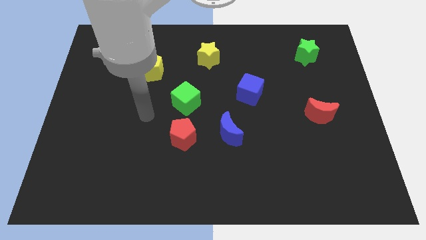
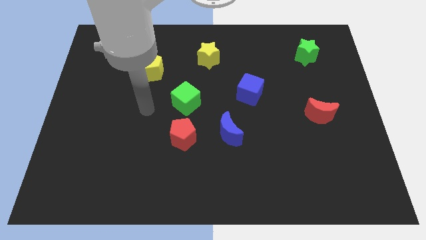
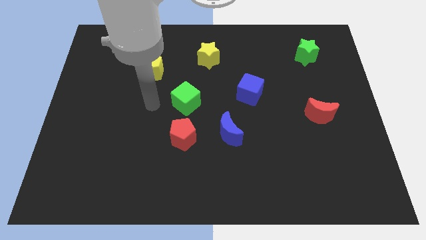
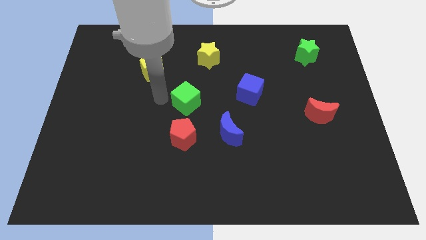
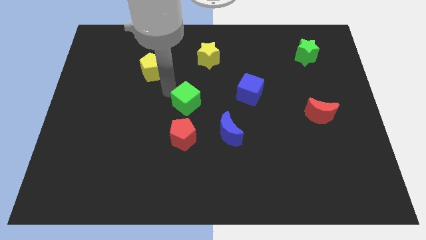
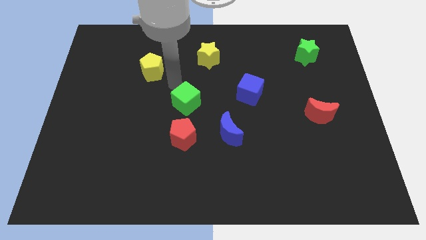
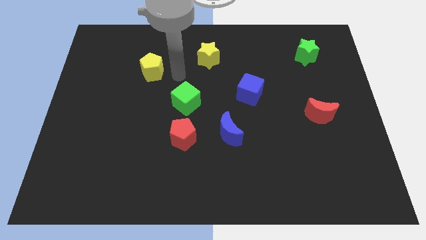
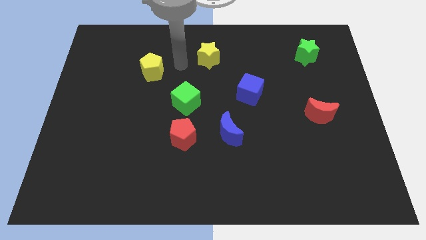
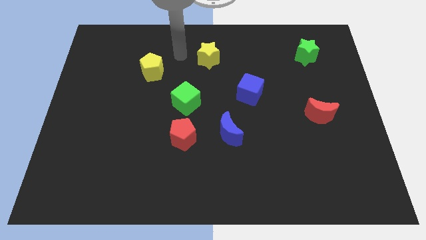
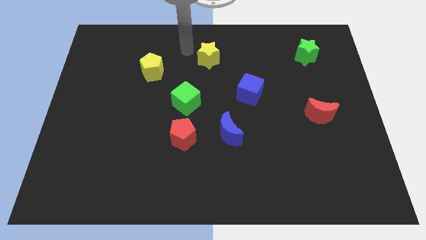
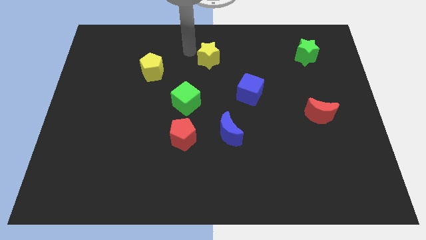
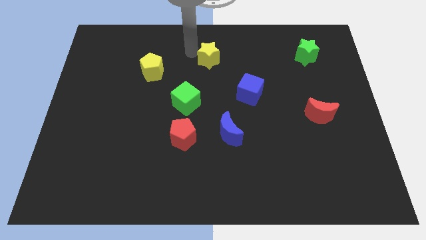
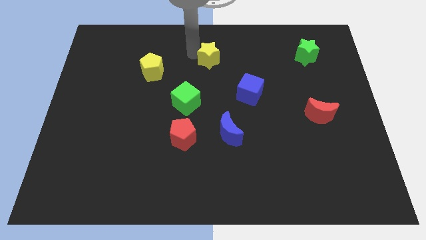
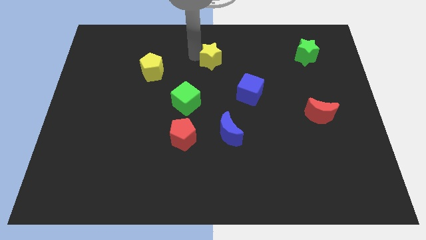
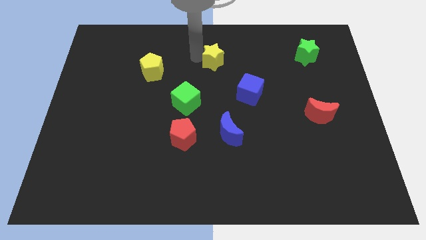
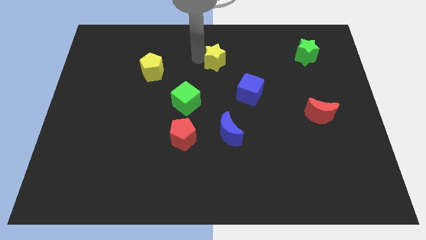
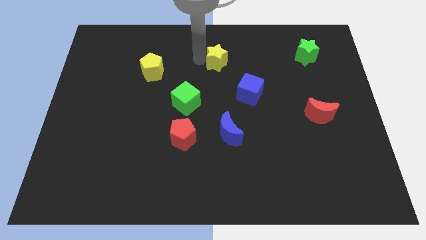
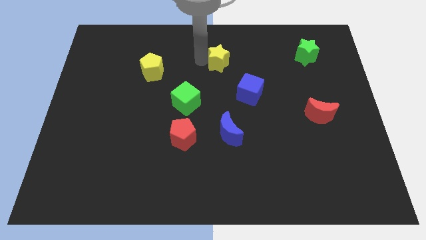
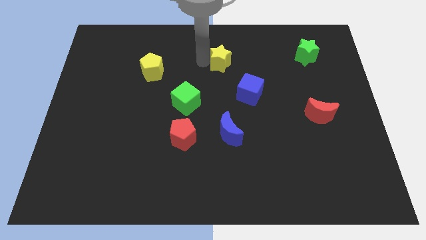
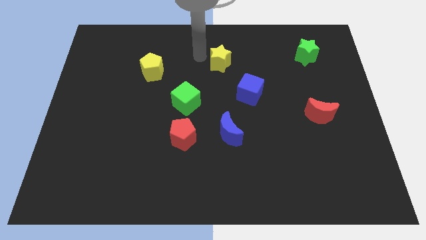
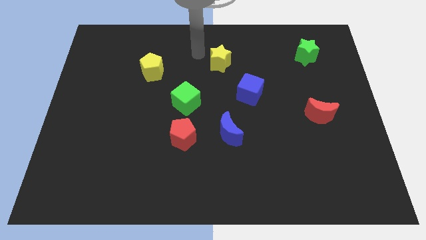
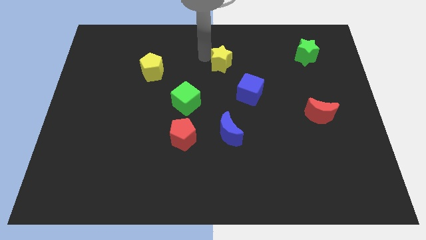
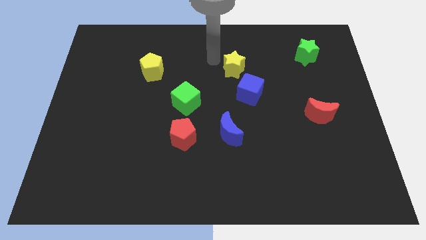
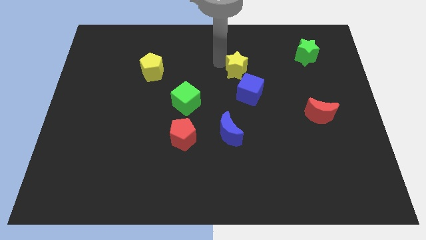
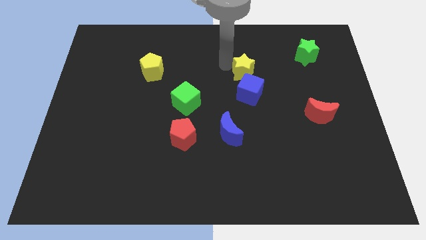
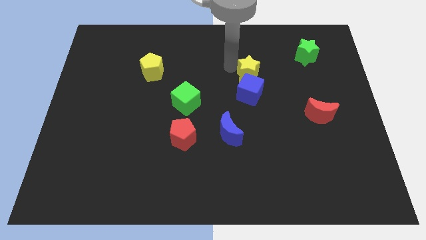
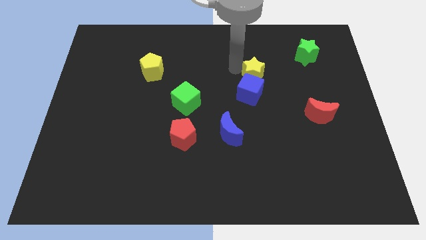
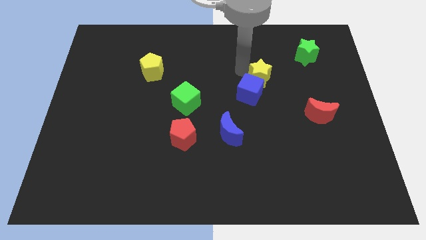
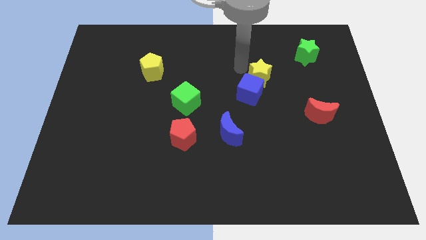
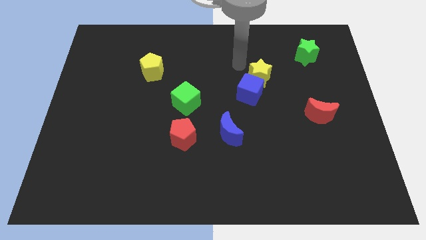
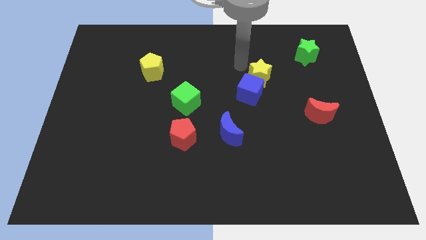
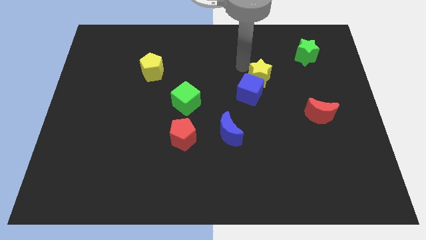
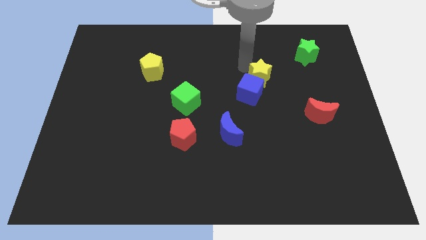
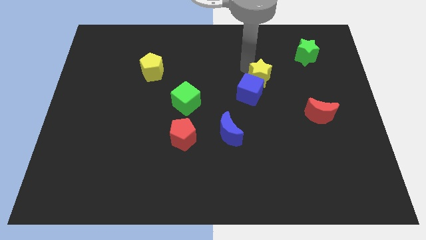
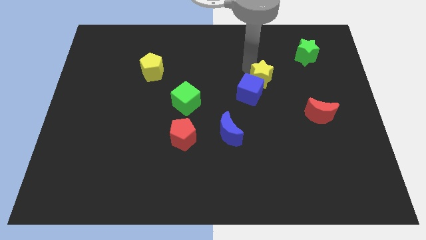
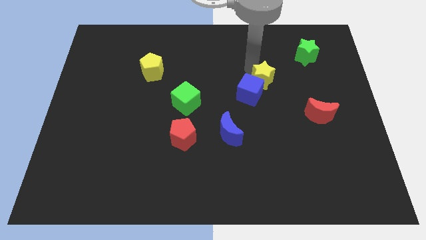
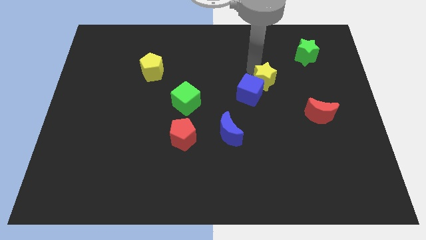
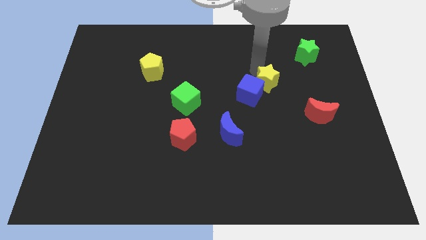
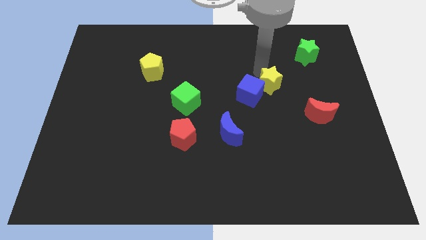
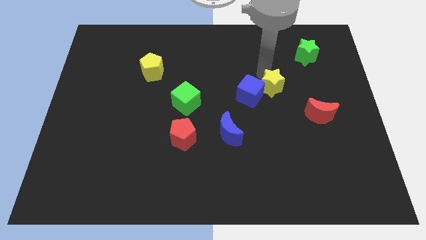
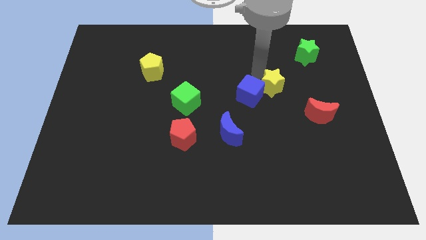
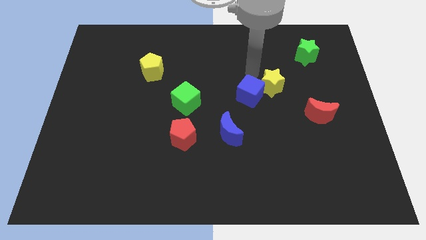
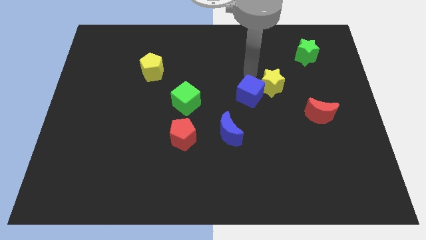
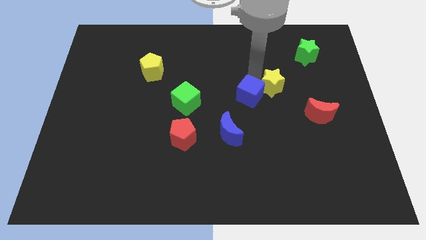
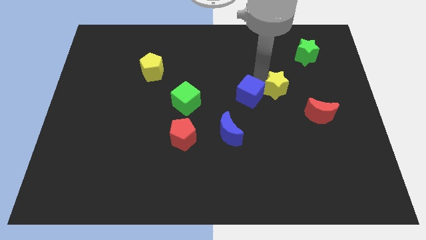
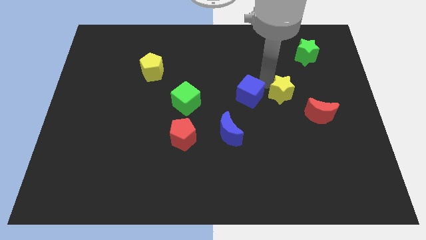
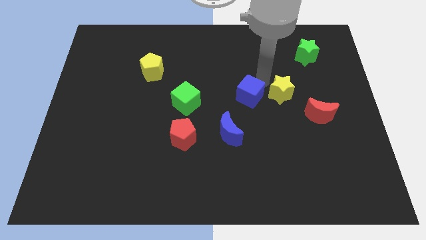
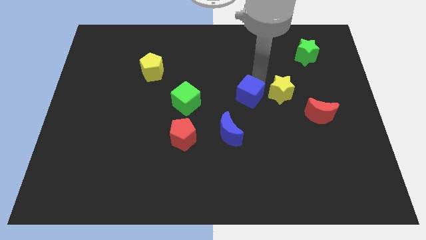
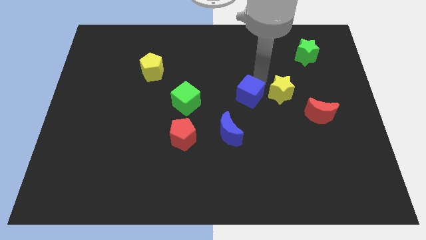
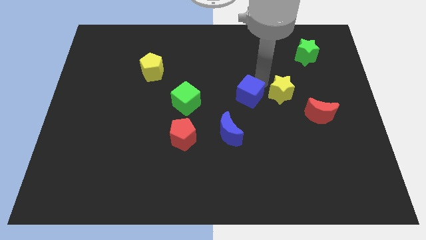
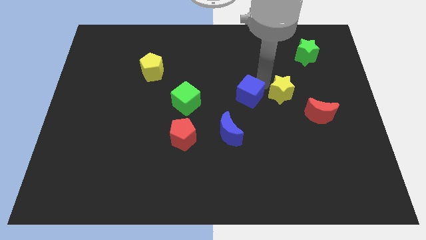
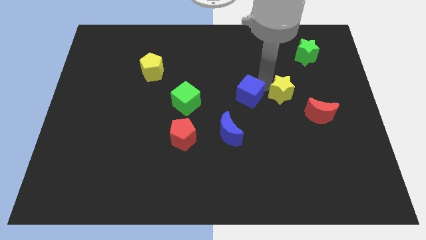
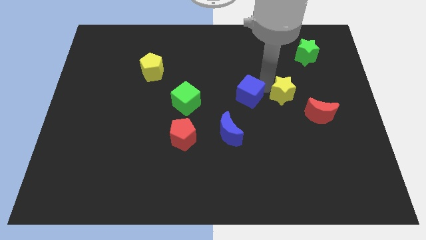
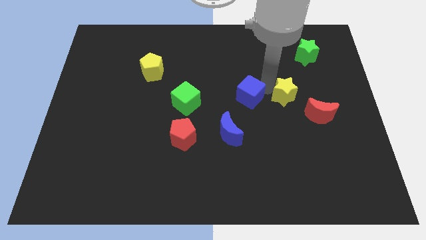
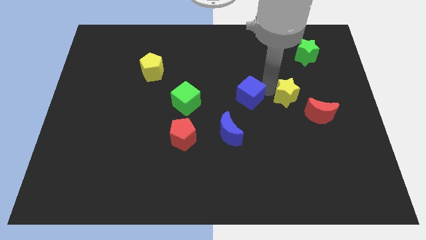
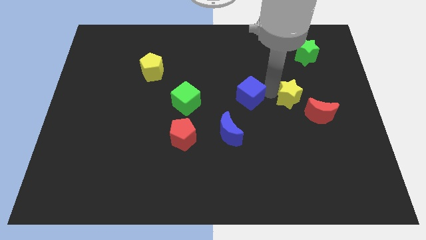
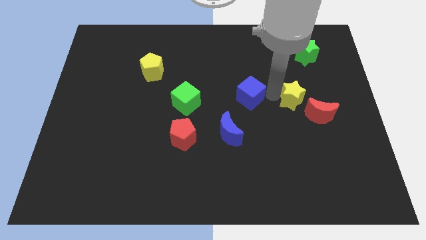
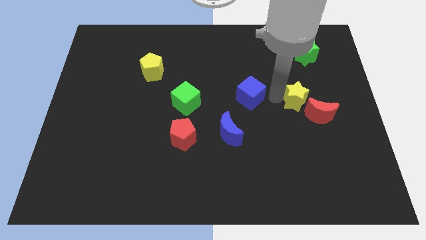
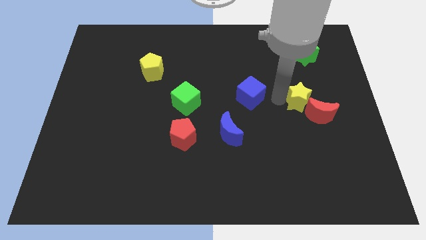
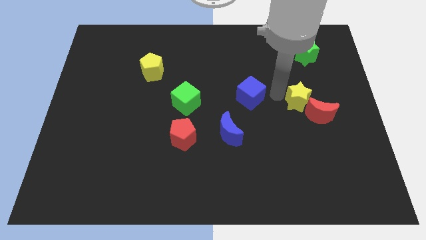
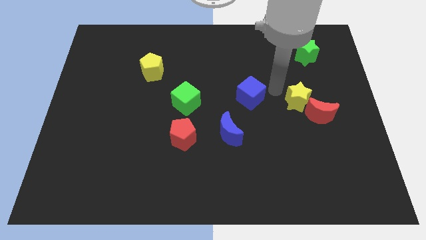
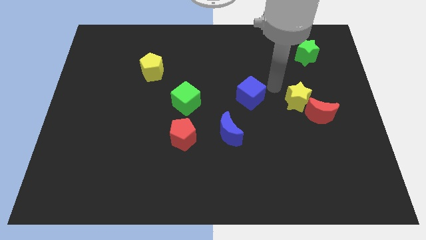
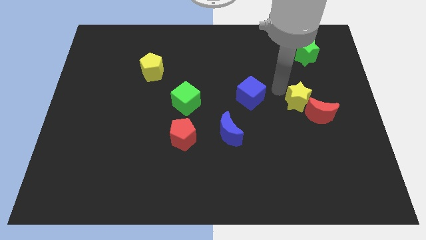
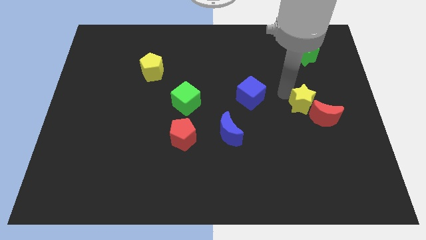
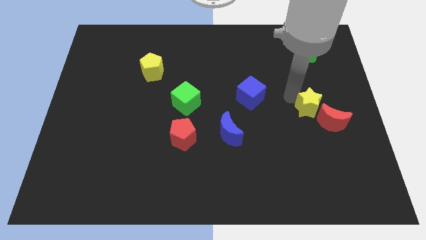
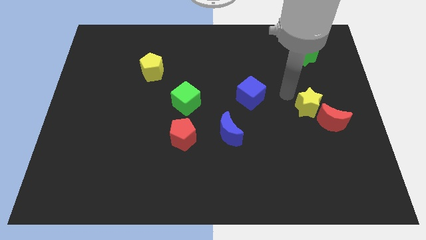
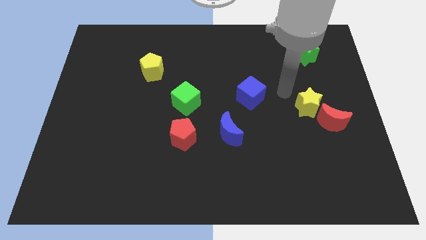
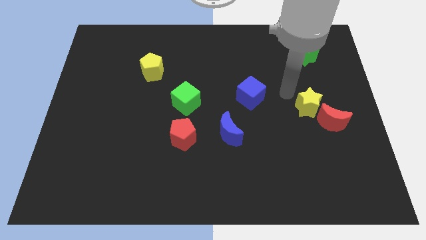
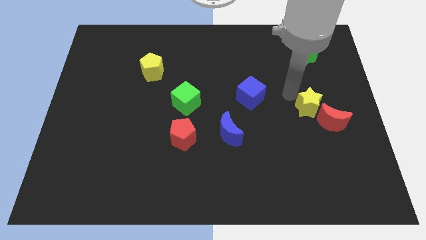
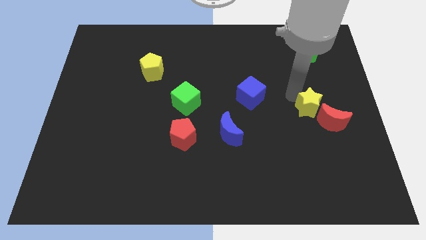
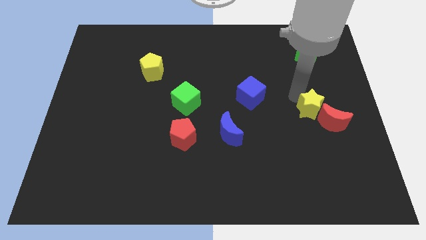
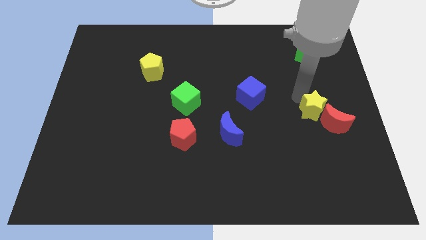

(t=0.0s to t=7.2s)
push the yellow star to the red moon
